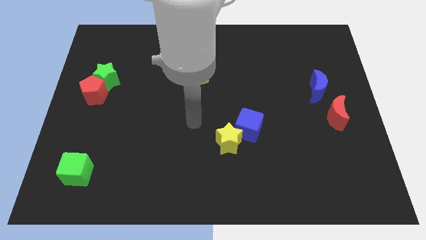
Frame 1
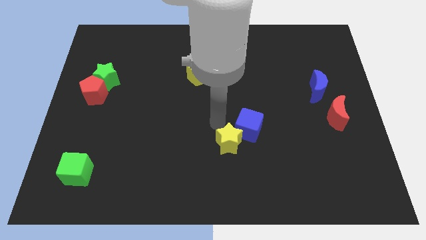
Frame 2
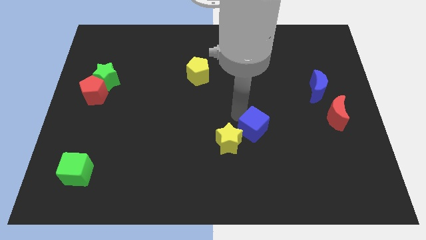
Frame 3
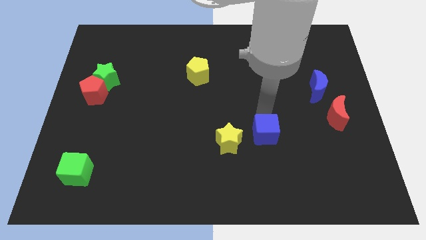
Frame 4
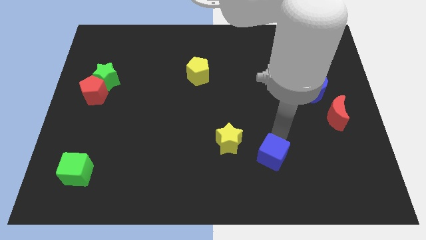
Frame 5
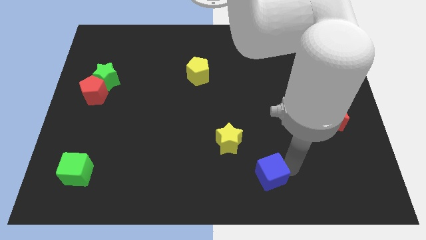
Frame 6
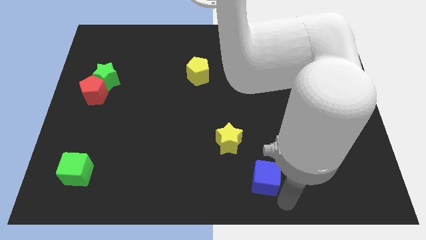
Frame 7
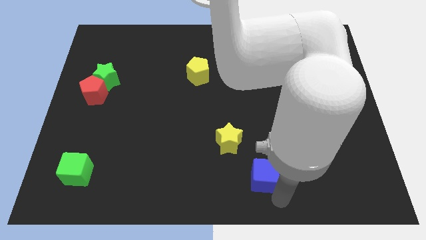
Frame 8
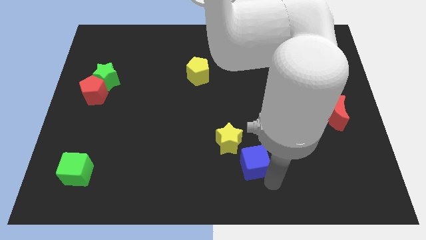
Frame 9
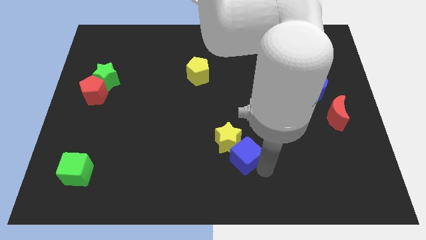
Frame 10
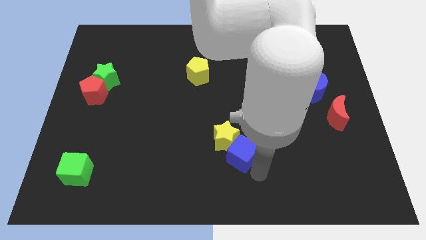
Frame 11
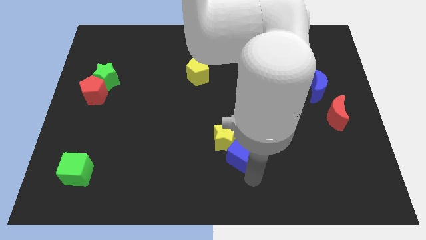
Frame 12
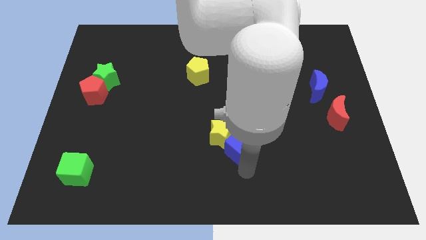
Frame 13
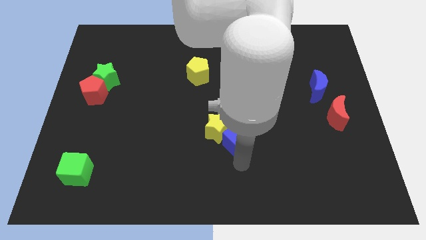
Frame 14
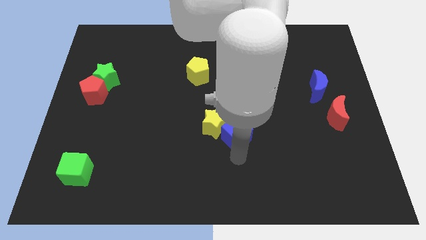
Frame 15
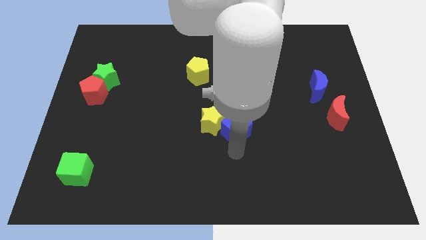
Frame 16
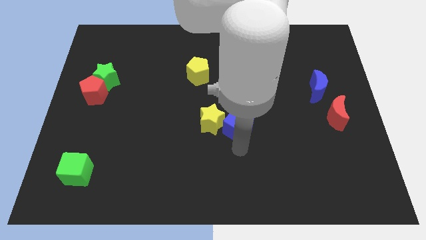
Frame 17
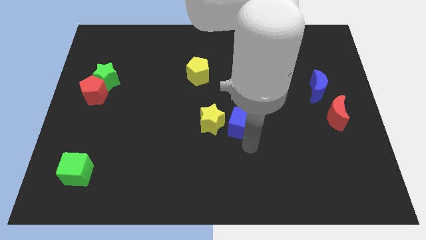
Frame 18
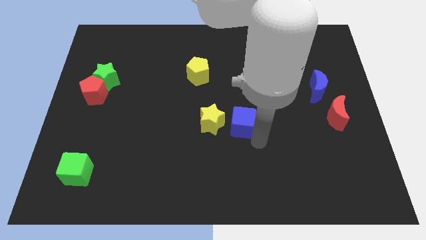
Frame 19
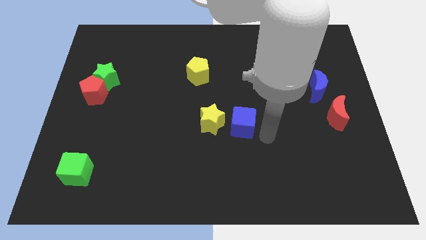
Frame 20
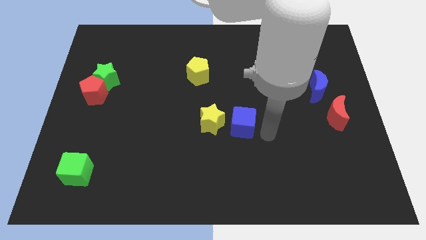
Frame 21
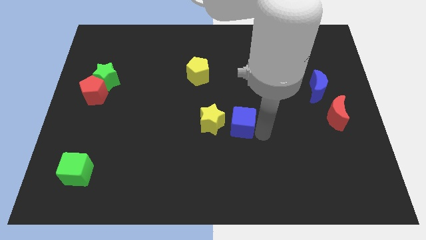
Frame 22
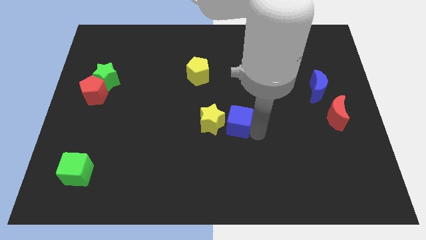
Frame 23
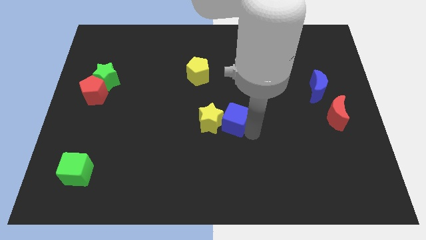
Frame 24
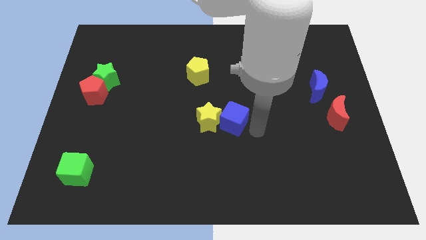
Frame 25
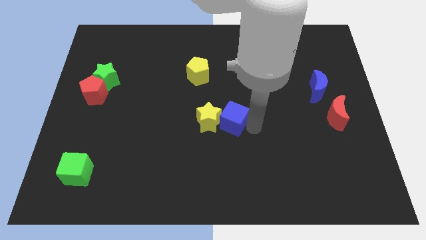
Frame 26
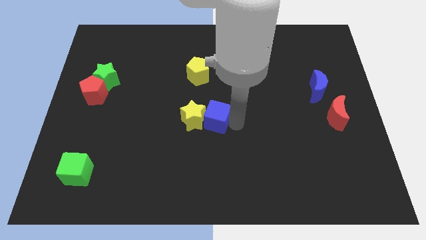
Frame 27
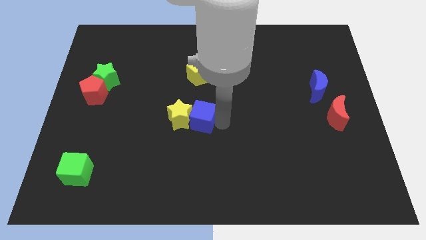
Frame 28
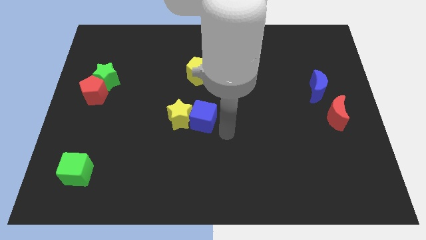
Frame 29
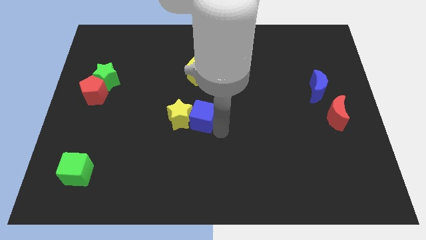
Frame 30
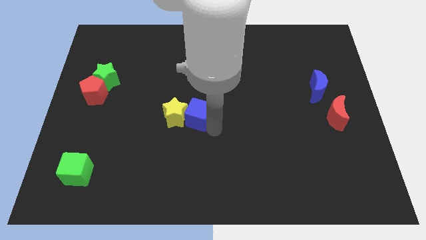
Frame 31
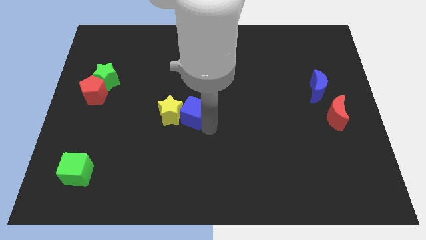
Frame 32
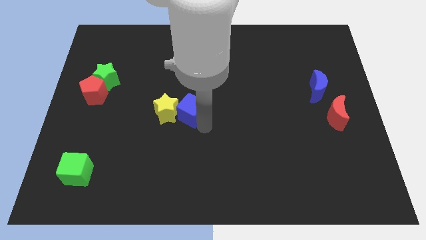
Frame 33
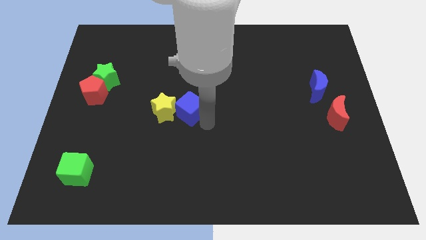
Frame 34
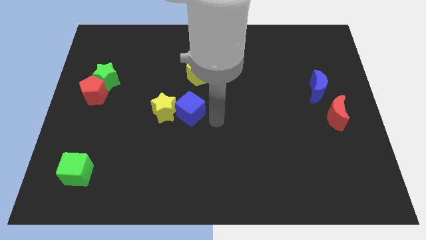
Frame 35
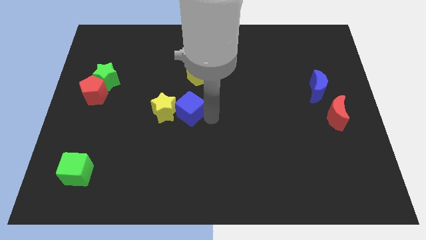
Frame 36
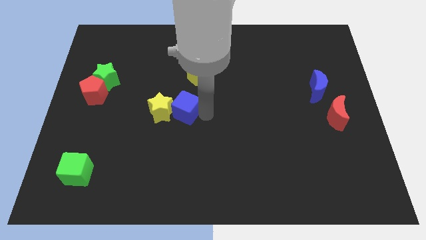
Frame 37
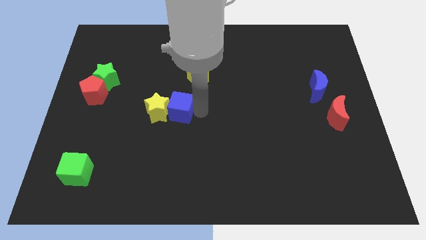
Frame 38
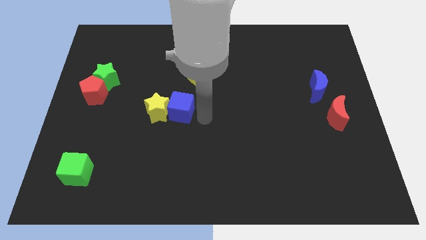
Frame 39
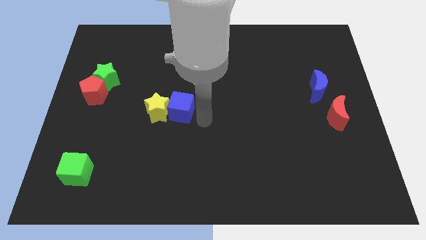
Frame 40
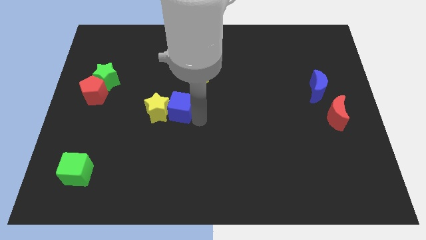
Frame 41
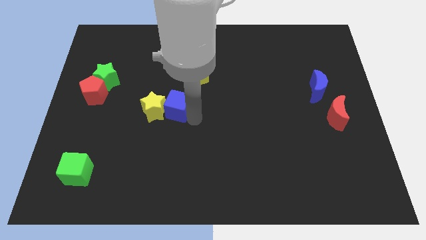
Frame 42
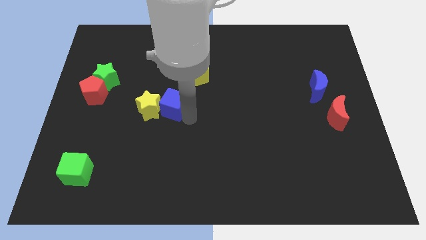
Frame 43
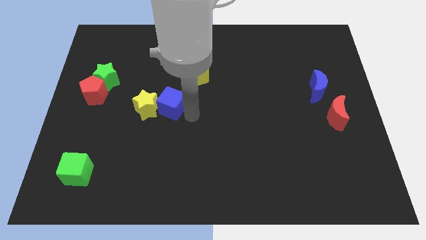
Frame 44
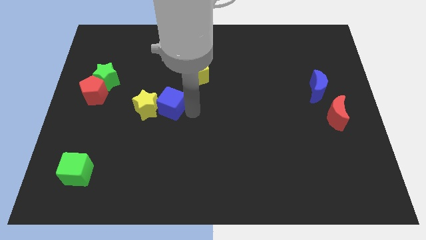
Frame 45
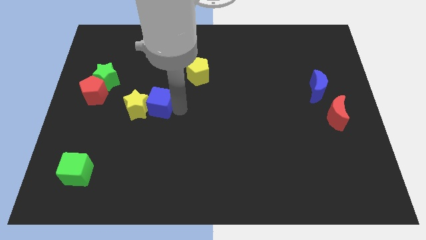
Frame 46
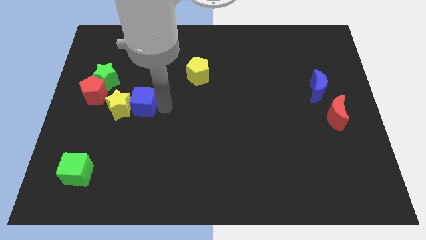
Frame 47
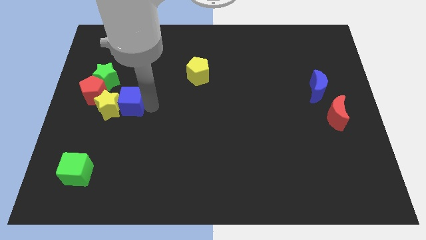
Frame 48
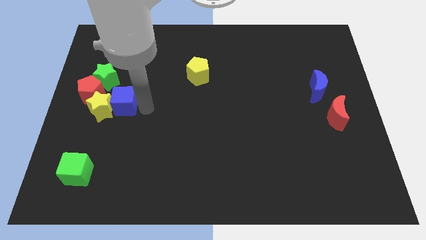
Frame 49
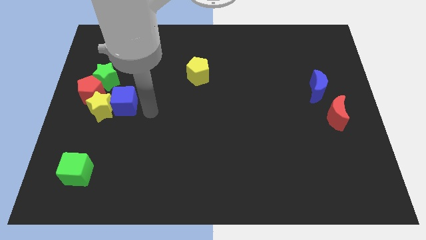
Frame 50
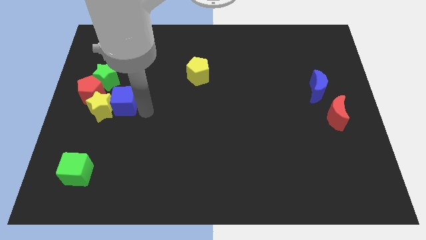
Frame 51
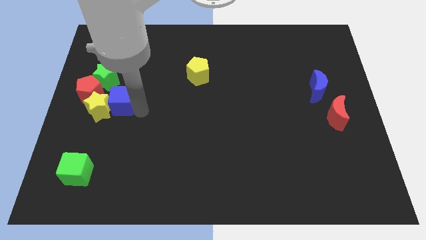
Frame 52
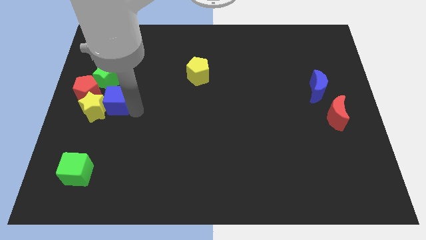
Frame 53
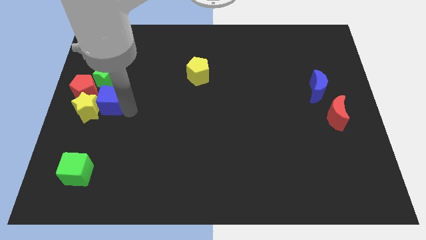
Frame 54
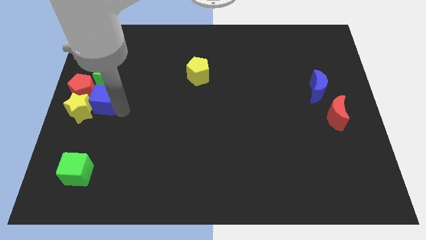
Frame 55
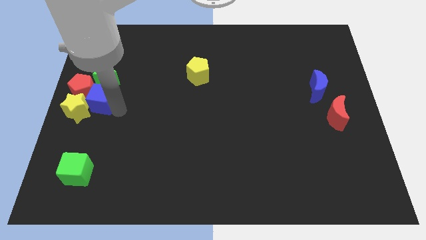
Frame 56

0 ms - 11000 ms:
slide the blue cube towards the red pentagon

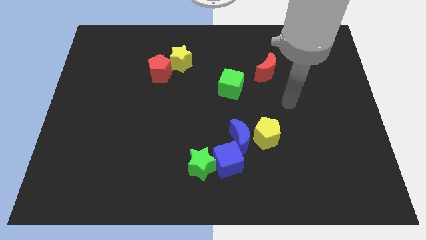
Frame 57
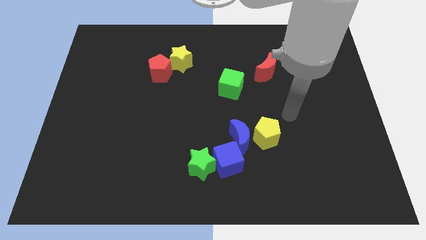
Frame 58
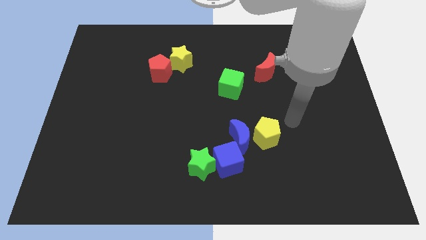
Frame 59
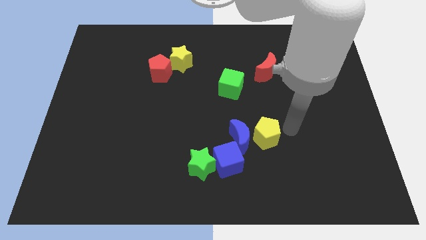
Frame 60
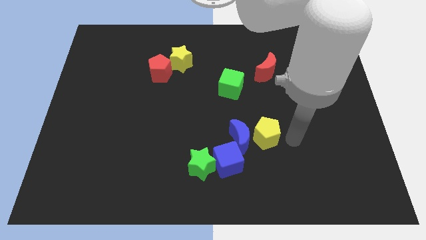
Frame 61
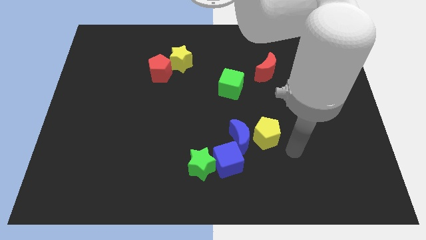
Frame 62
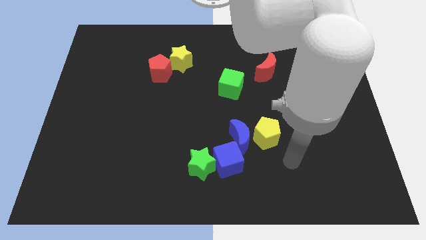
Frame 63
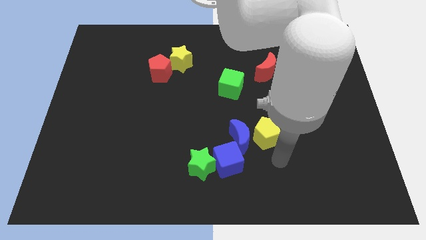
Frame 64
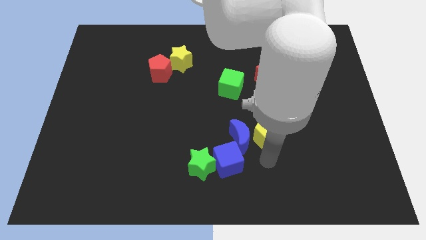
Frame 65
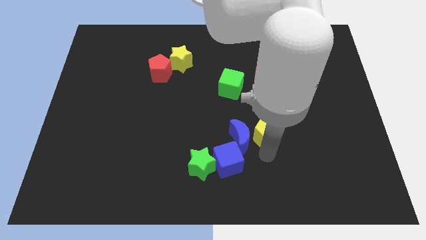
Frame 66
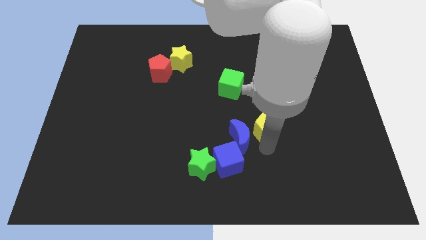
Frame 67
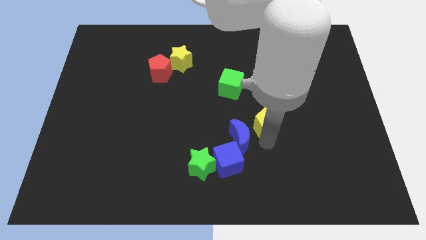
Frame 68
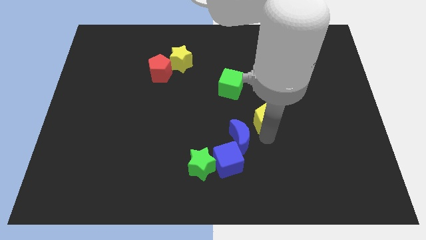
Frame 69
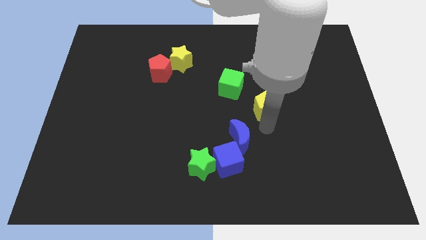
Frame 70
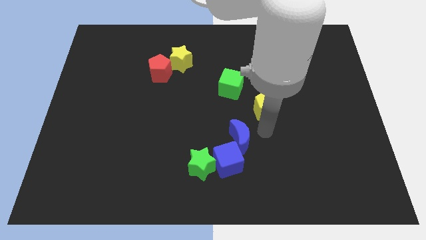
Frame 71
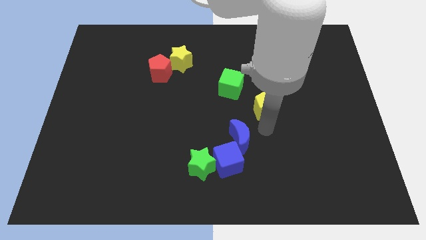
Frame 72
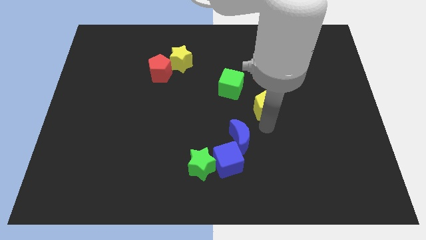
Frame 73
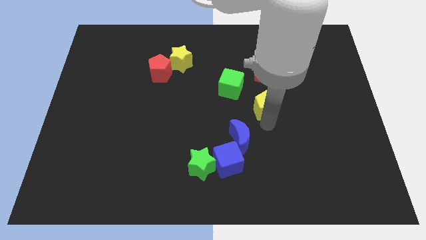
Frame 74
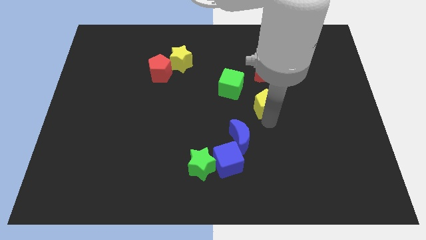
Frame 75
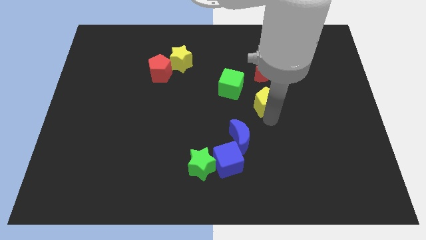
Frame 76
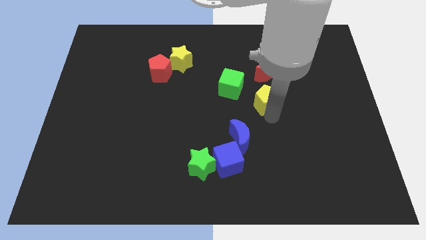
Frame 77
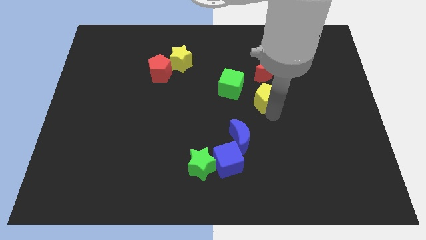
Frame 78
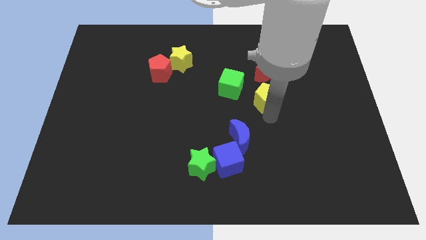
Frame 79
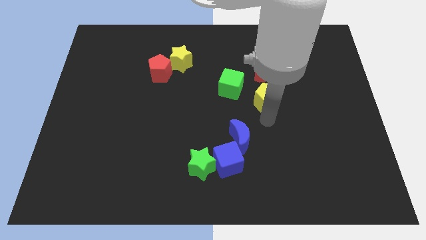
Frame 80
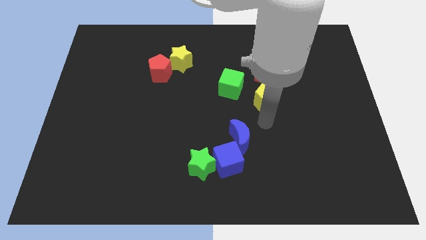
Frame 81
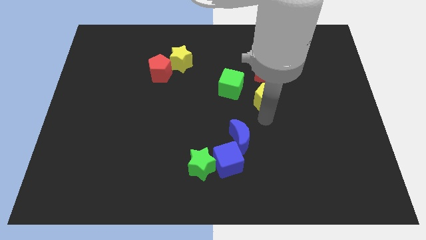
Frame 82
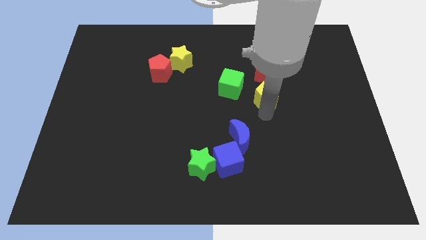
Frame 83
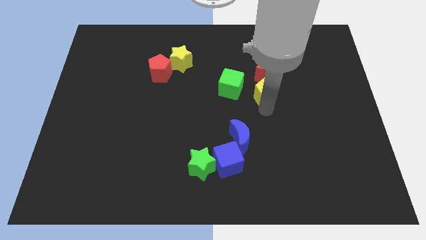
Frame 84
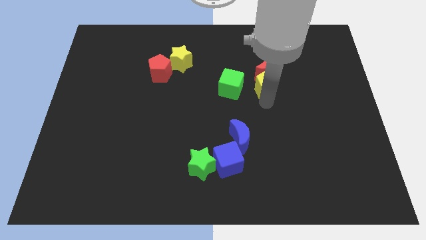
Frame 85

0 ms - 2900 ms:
push the yellow pentagon towards the red moon
